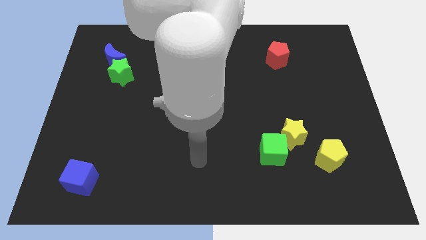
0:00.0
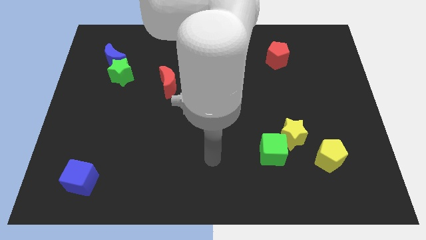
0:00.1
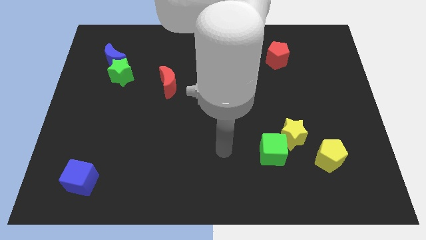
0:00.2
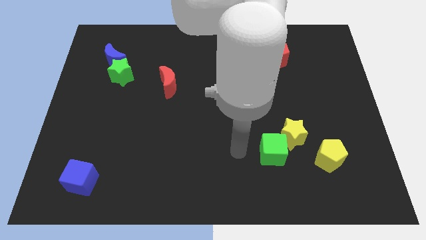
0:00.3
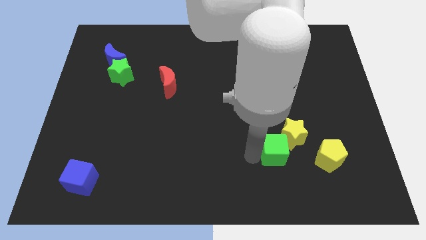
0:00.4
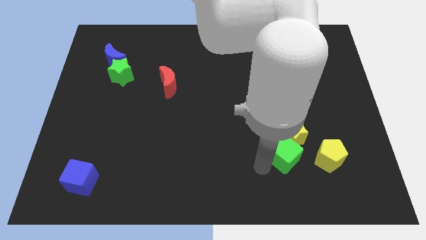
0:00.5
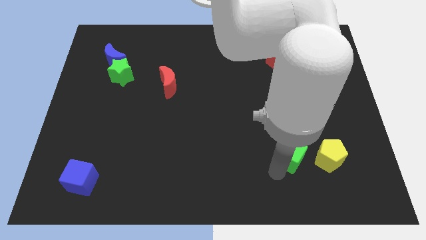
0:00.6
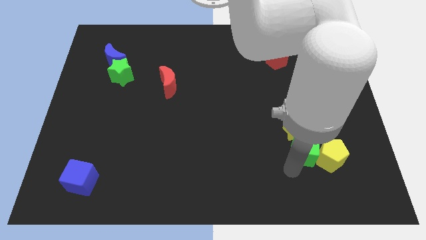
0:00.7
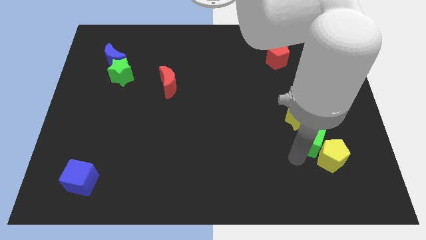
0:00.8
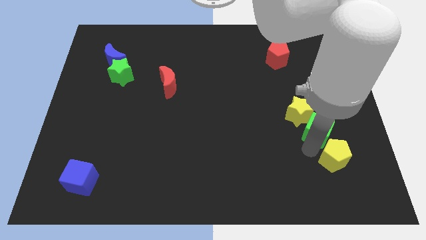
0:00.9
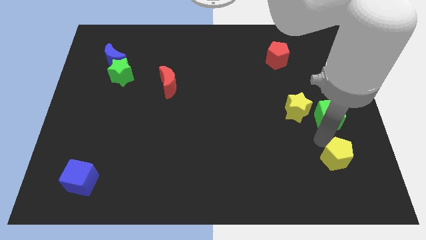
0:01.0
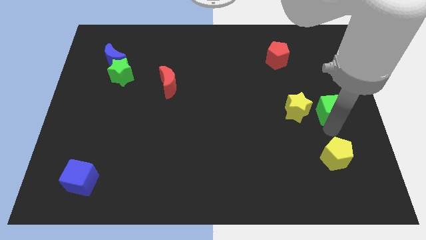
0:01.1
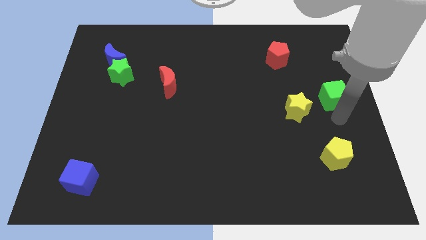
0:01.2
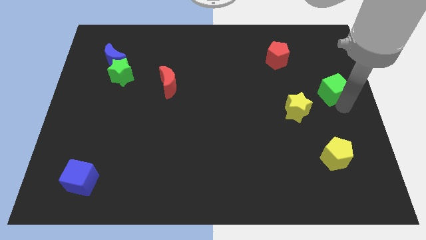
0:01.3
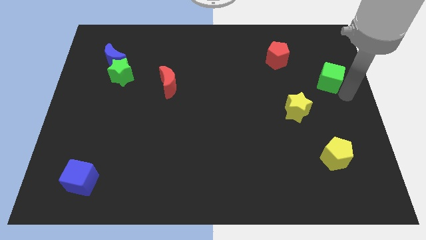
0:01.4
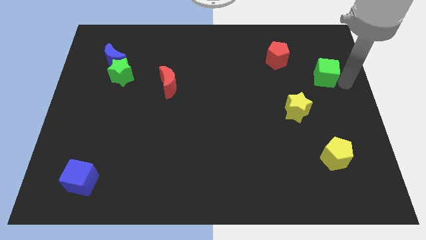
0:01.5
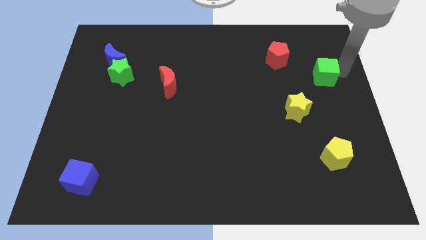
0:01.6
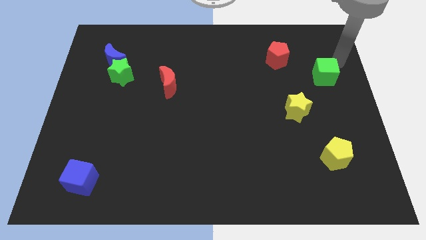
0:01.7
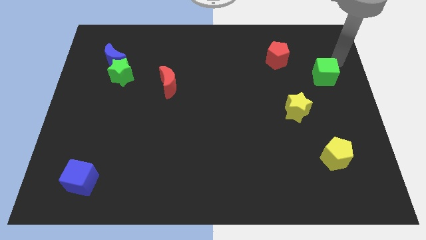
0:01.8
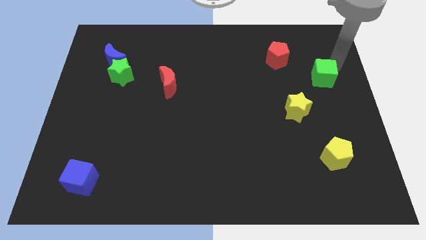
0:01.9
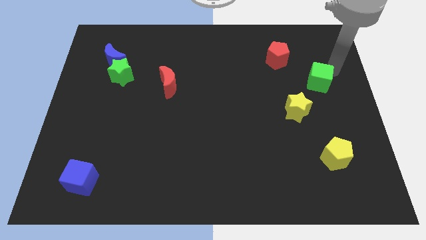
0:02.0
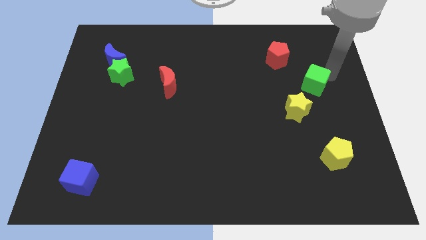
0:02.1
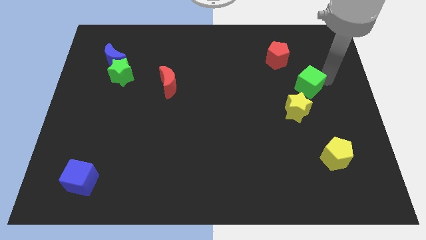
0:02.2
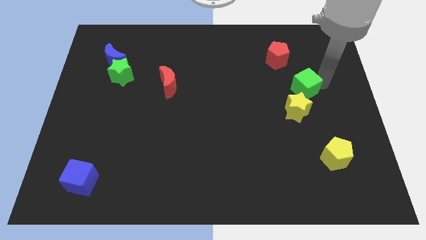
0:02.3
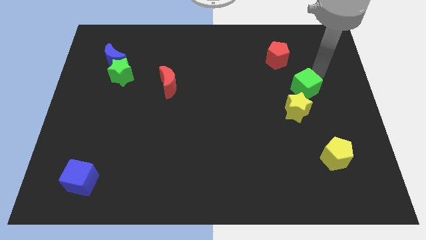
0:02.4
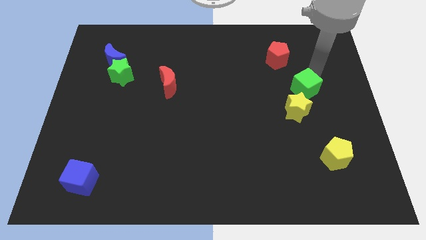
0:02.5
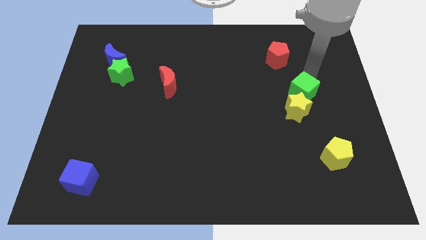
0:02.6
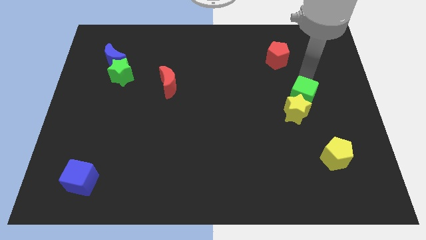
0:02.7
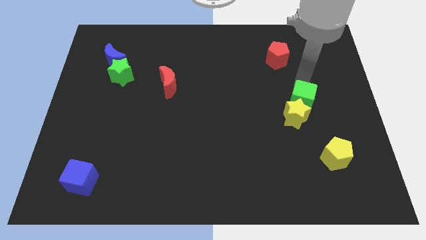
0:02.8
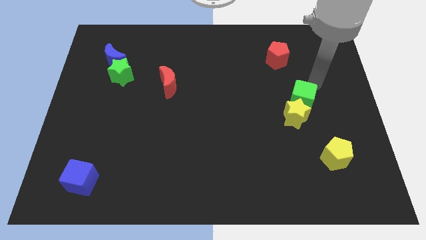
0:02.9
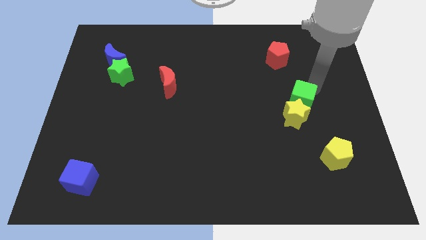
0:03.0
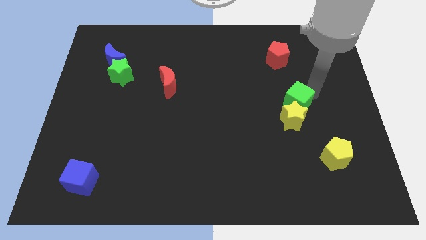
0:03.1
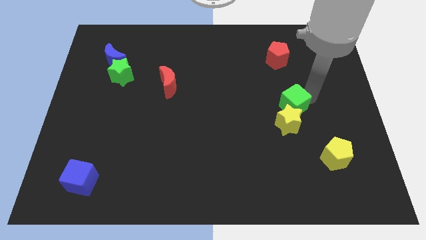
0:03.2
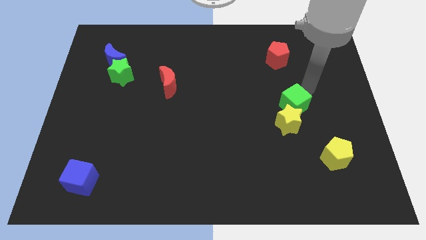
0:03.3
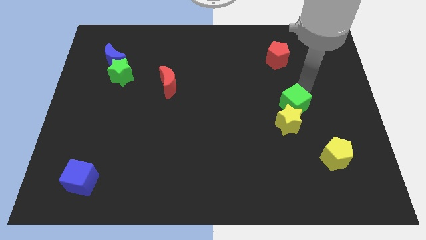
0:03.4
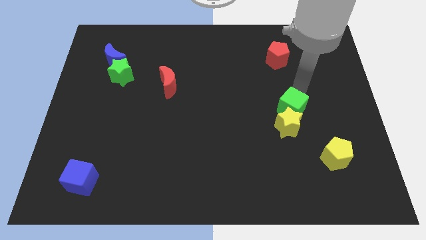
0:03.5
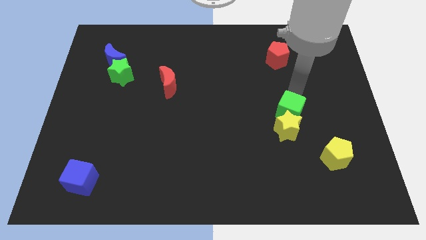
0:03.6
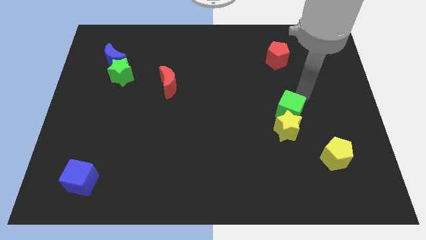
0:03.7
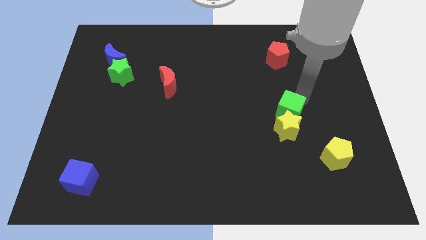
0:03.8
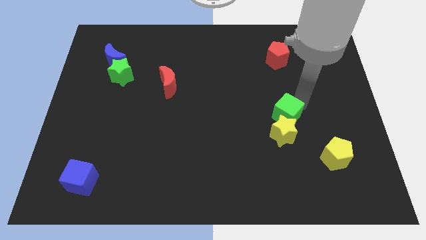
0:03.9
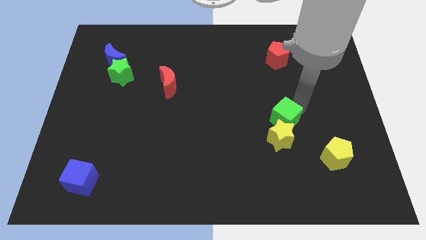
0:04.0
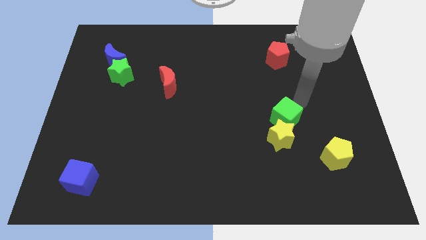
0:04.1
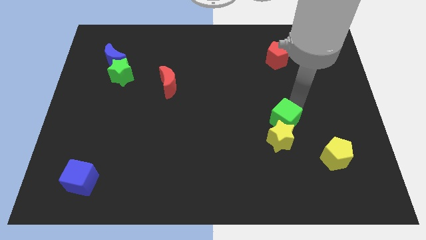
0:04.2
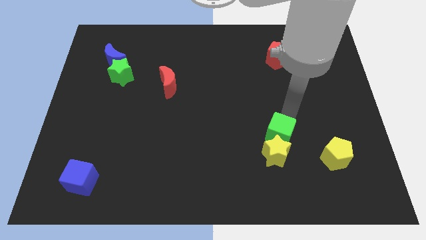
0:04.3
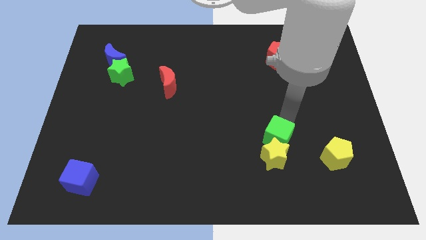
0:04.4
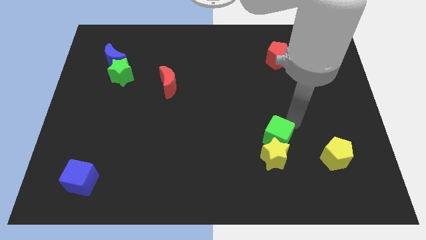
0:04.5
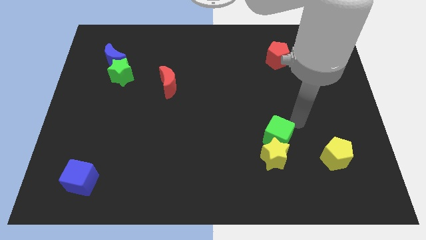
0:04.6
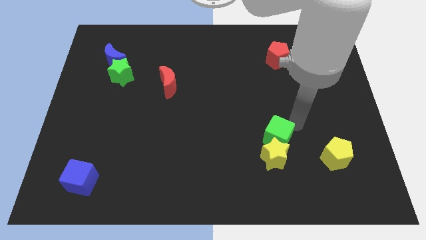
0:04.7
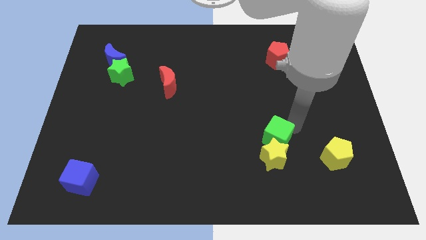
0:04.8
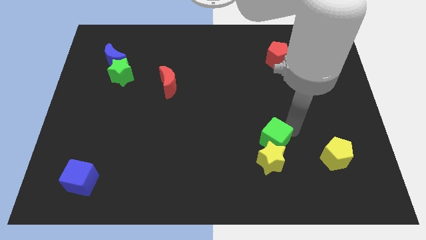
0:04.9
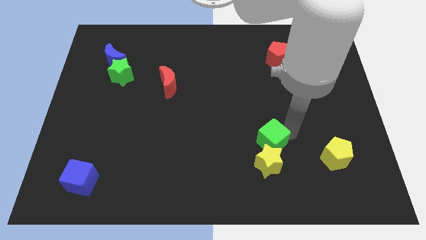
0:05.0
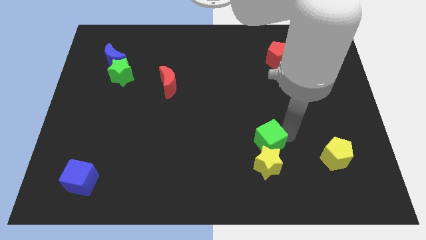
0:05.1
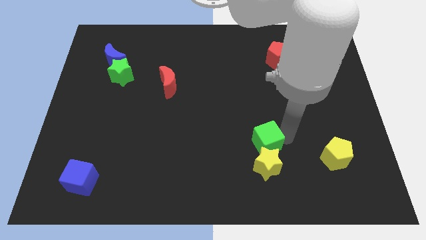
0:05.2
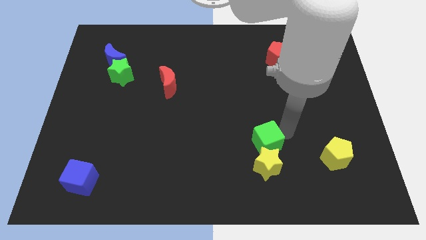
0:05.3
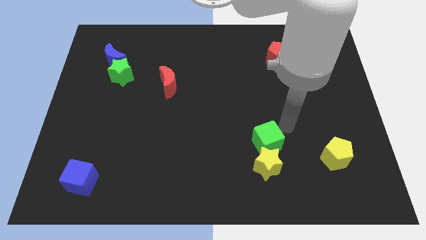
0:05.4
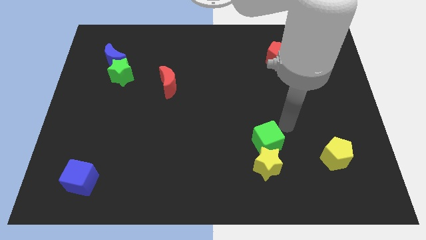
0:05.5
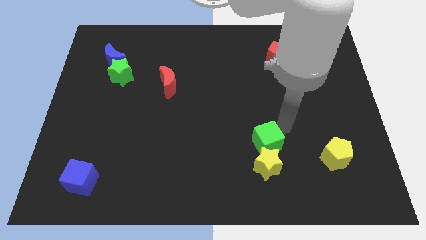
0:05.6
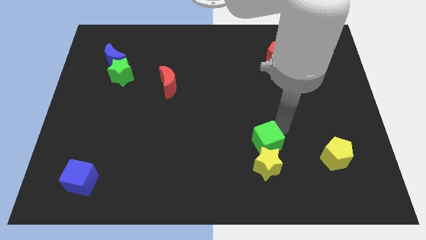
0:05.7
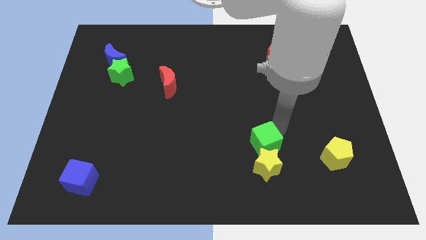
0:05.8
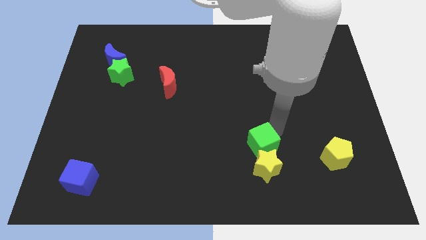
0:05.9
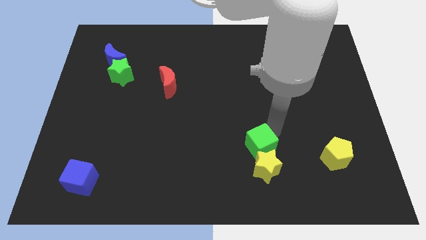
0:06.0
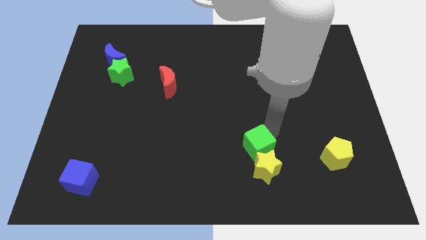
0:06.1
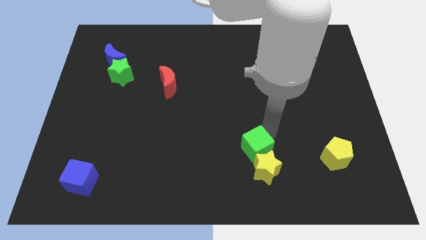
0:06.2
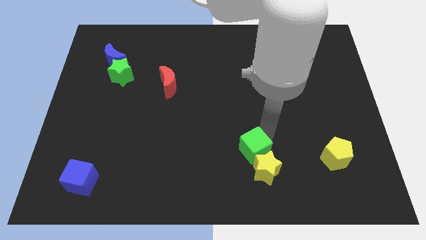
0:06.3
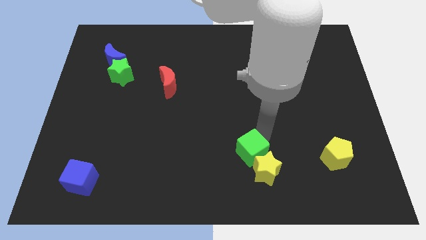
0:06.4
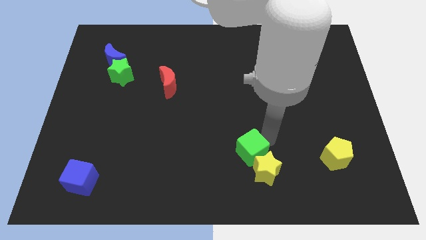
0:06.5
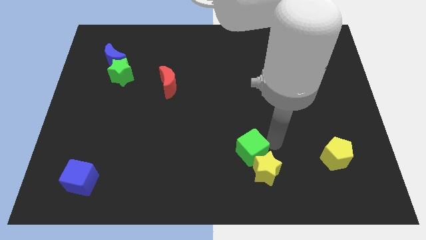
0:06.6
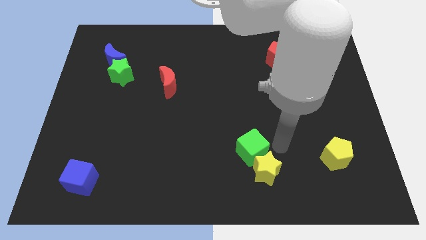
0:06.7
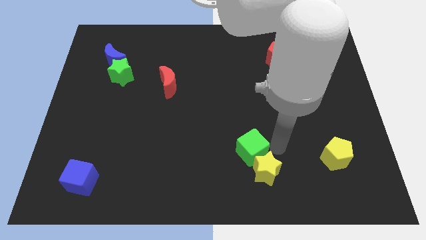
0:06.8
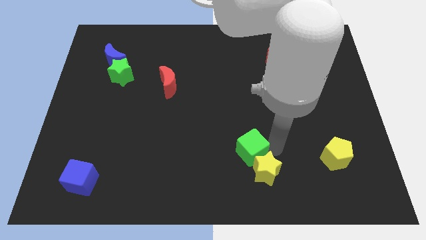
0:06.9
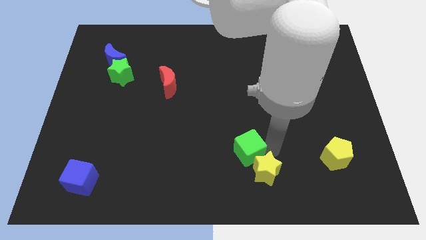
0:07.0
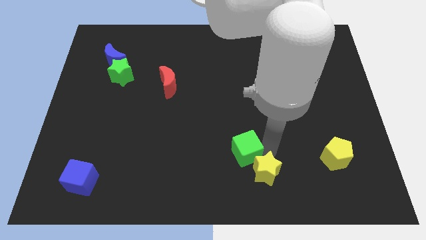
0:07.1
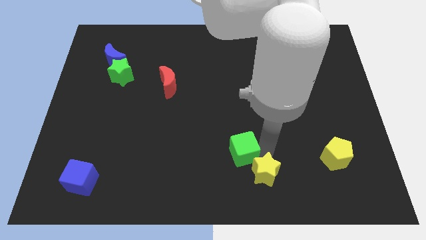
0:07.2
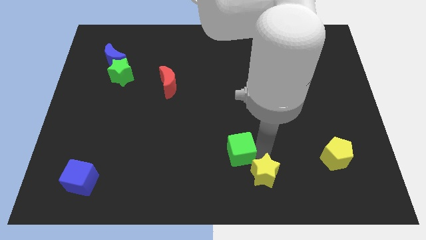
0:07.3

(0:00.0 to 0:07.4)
slide the green cube to the left slightly

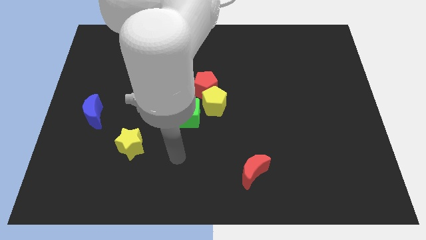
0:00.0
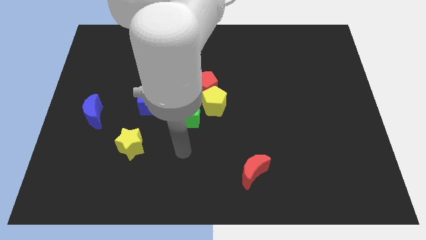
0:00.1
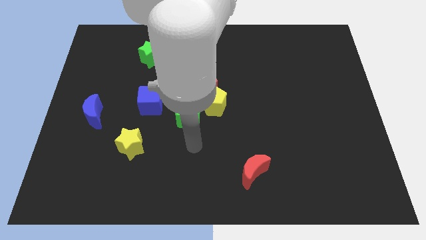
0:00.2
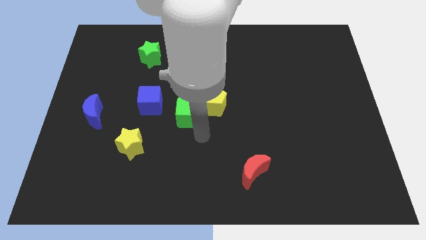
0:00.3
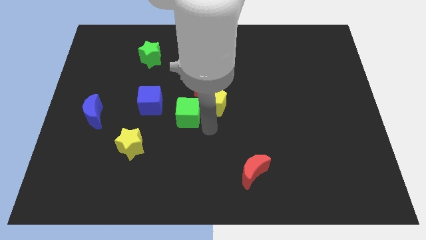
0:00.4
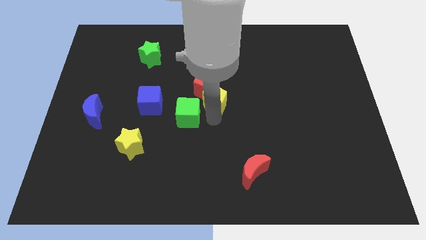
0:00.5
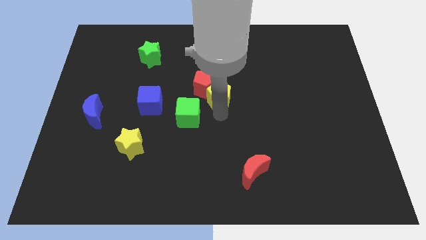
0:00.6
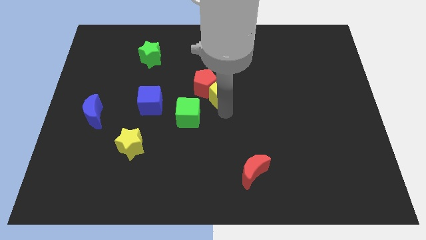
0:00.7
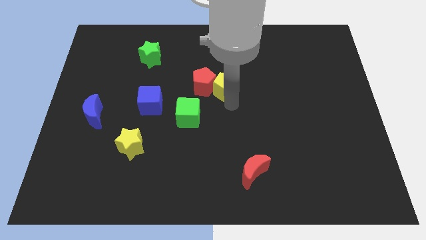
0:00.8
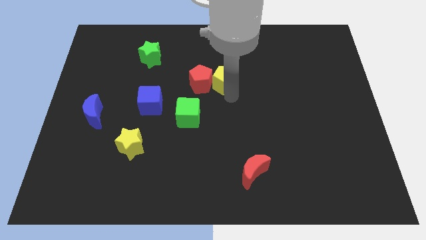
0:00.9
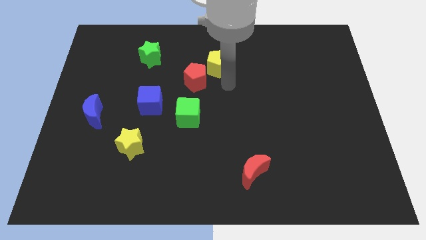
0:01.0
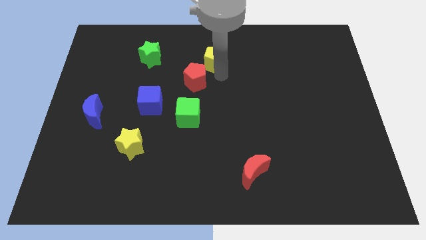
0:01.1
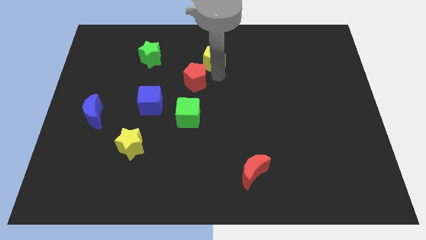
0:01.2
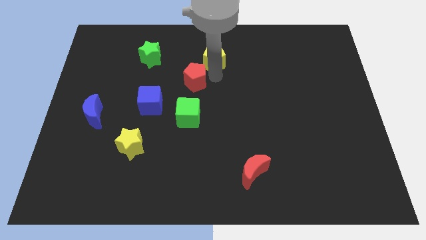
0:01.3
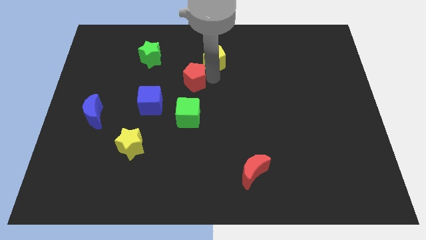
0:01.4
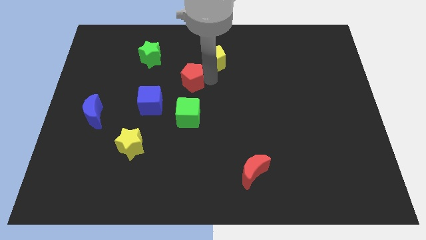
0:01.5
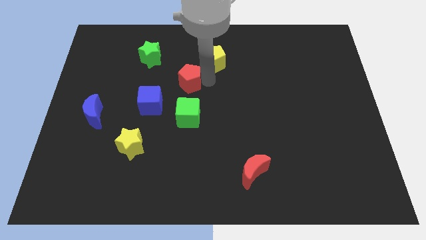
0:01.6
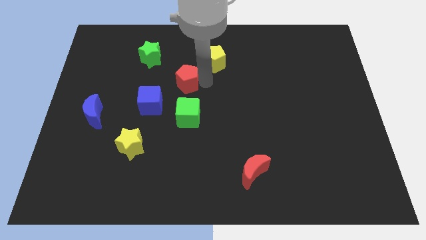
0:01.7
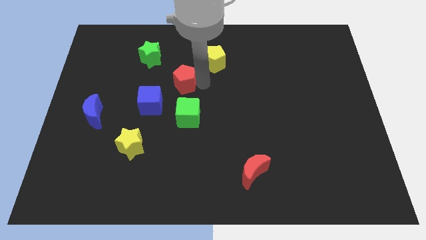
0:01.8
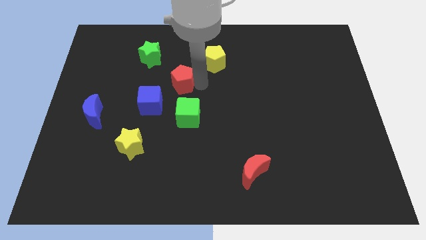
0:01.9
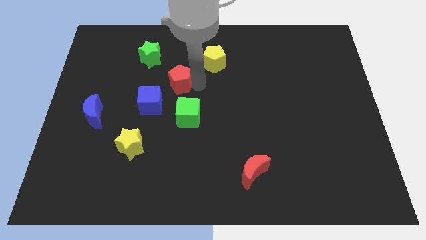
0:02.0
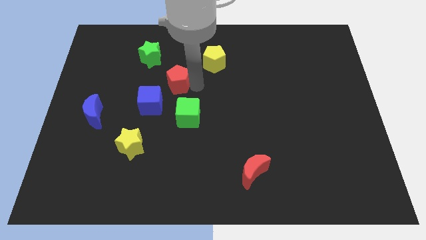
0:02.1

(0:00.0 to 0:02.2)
push the red pentagon a little bit left
